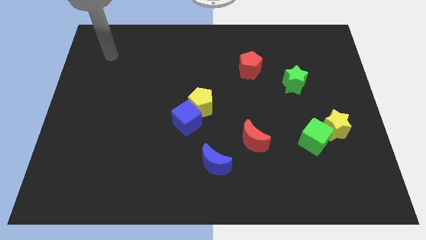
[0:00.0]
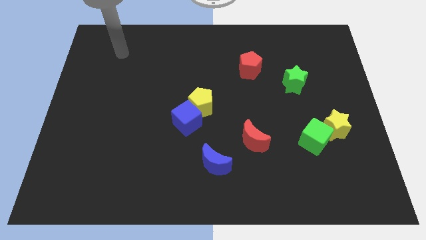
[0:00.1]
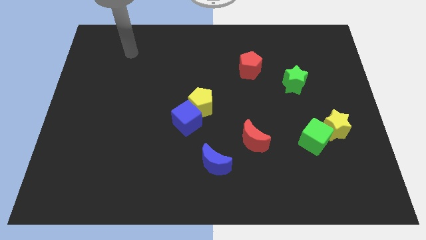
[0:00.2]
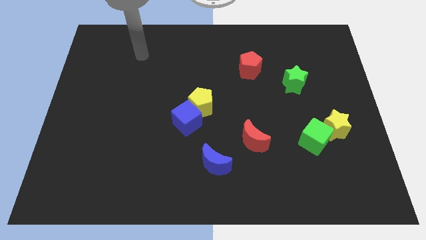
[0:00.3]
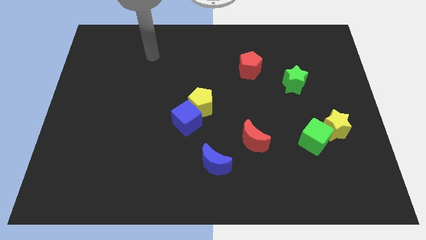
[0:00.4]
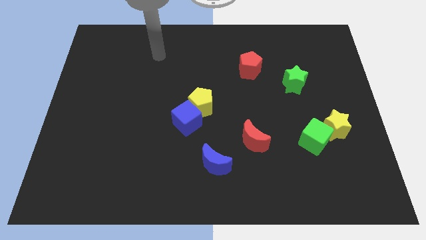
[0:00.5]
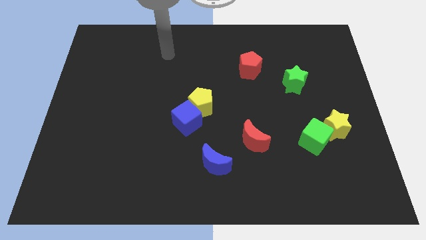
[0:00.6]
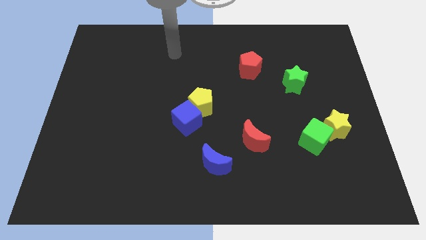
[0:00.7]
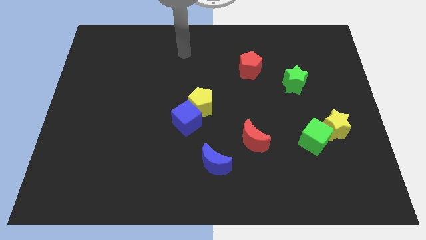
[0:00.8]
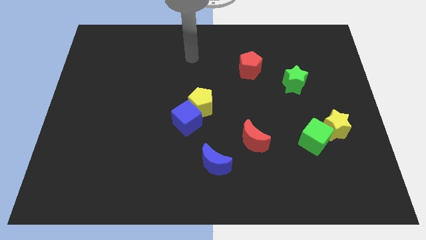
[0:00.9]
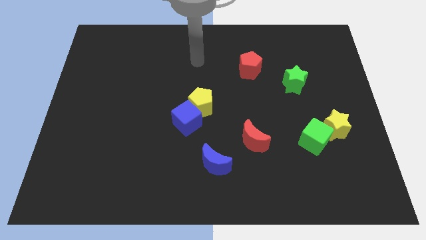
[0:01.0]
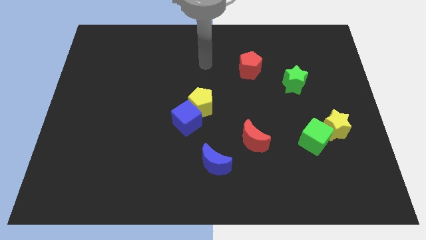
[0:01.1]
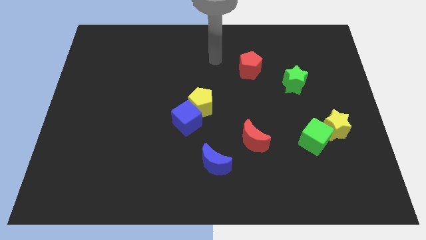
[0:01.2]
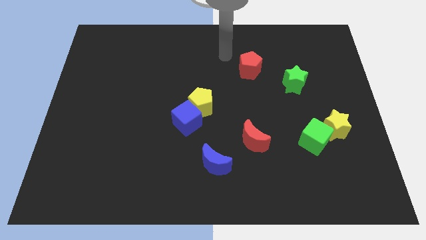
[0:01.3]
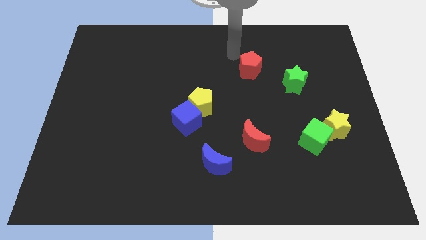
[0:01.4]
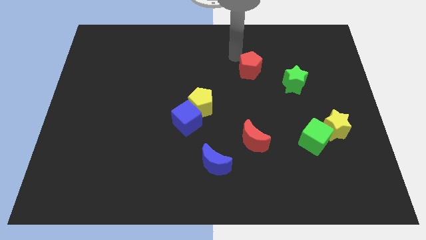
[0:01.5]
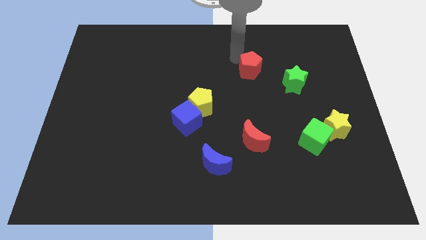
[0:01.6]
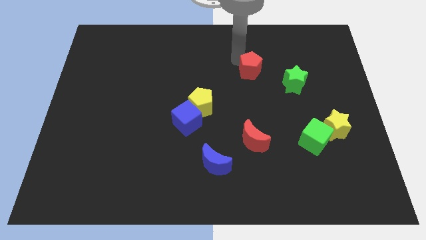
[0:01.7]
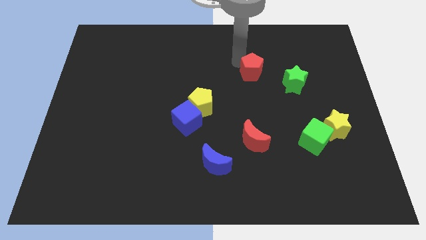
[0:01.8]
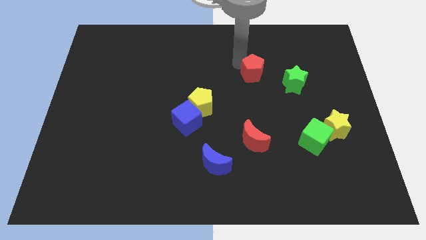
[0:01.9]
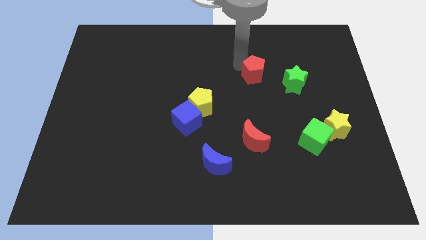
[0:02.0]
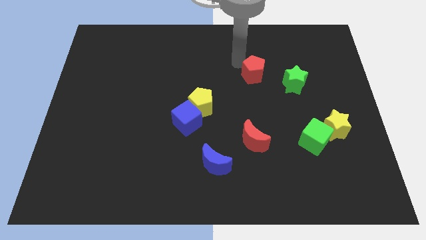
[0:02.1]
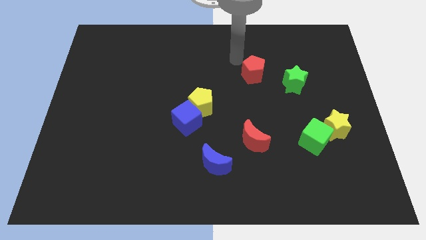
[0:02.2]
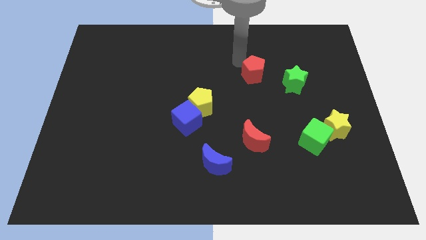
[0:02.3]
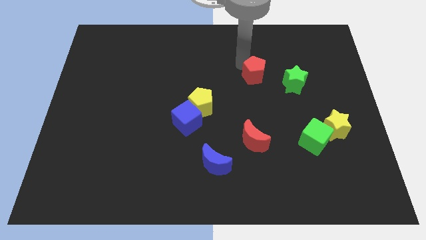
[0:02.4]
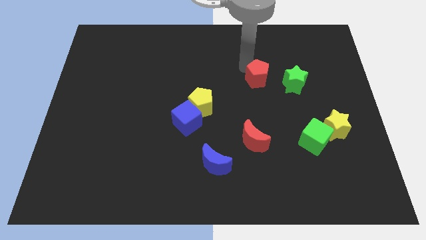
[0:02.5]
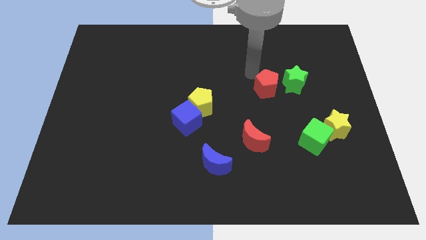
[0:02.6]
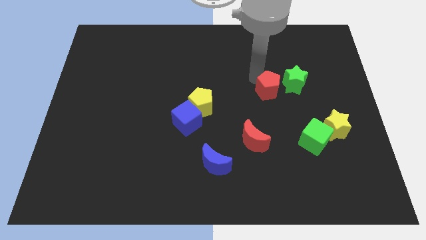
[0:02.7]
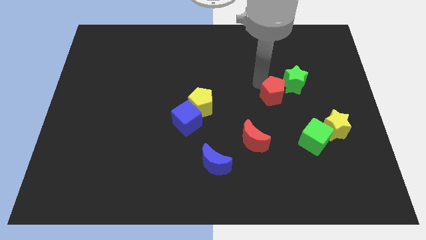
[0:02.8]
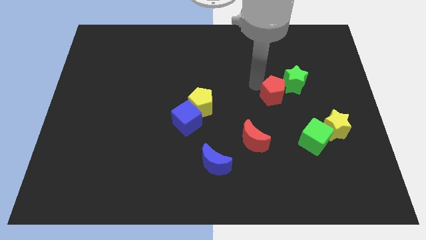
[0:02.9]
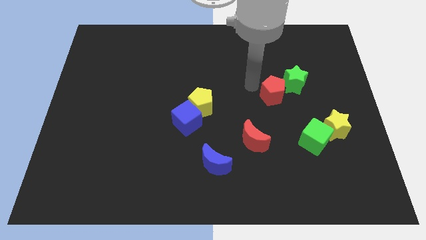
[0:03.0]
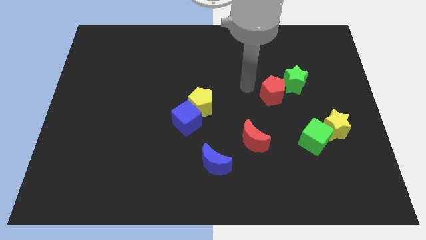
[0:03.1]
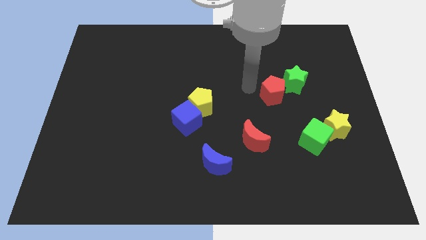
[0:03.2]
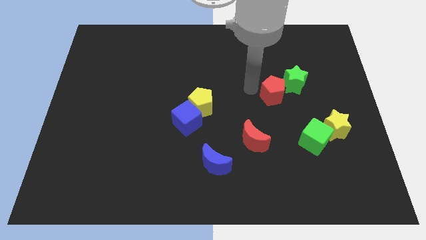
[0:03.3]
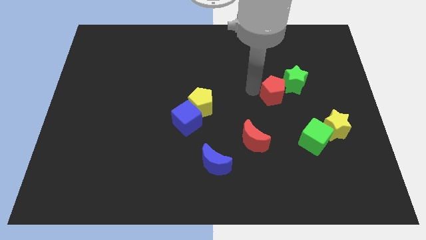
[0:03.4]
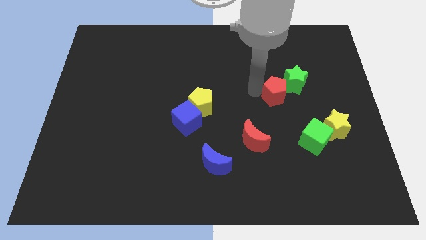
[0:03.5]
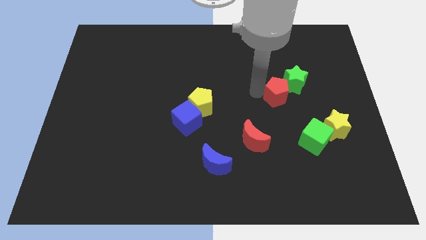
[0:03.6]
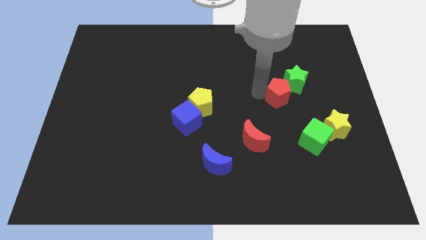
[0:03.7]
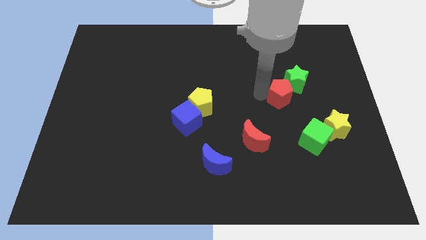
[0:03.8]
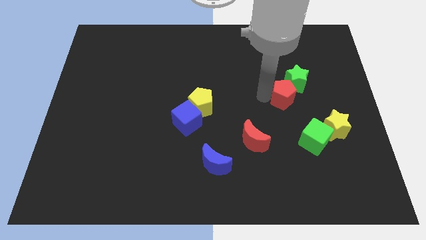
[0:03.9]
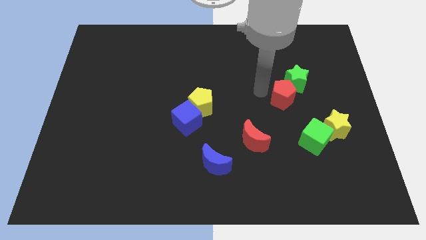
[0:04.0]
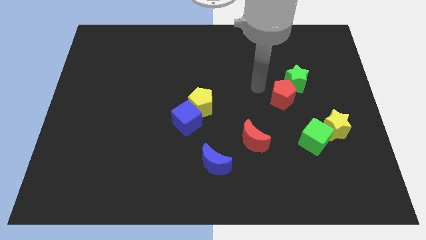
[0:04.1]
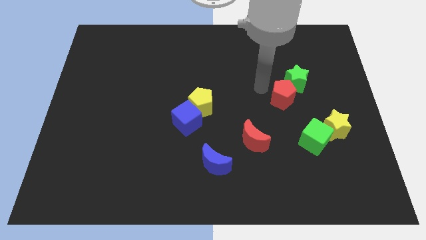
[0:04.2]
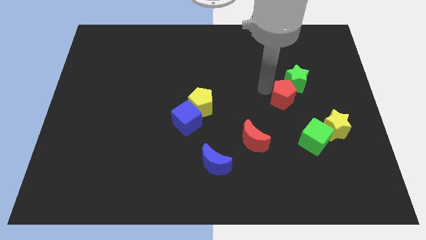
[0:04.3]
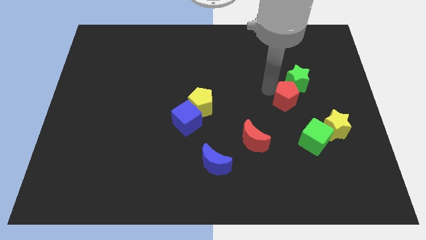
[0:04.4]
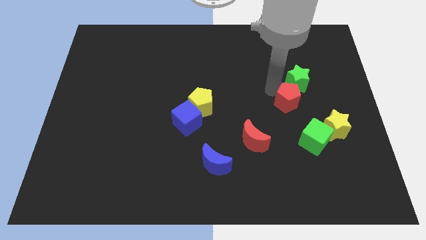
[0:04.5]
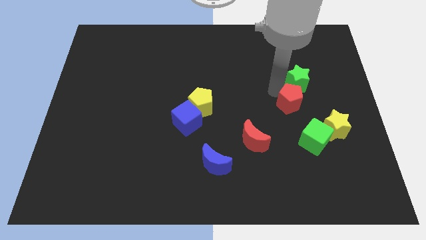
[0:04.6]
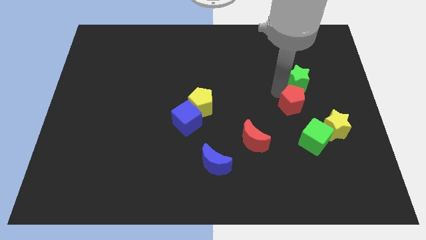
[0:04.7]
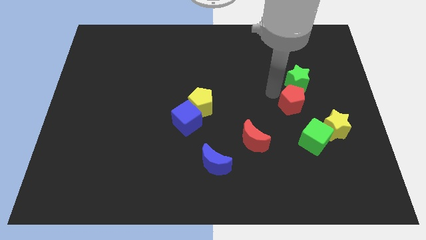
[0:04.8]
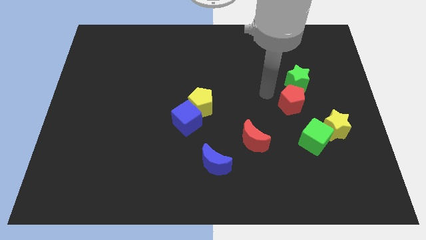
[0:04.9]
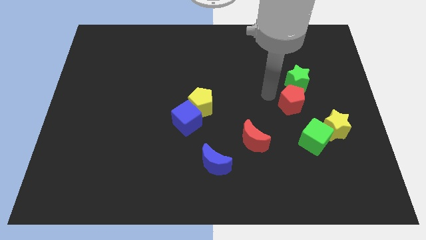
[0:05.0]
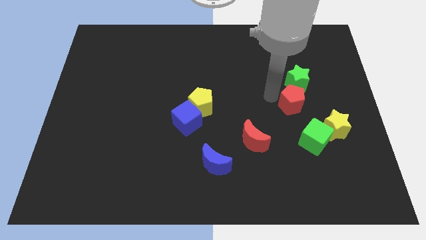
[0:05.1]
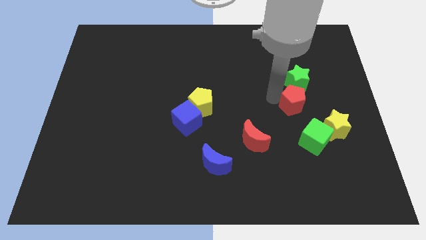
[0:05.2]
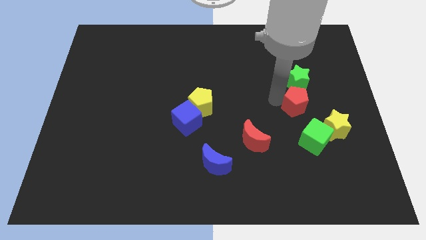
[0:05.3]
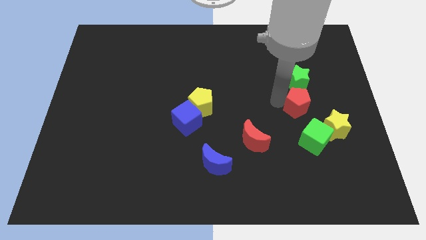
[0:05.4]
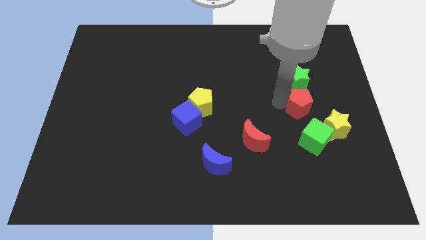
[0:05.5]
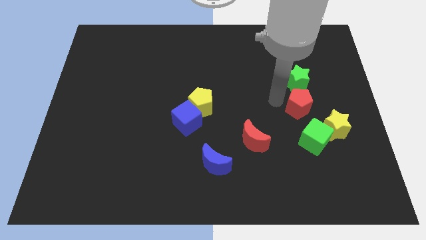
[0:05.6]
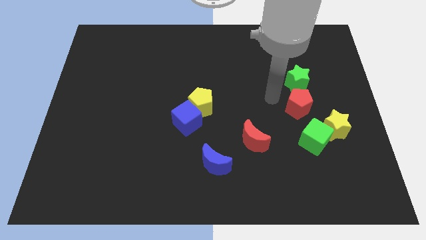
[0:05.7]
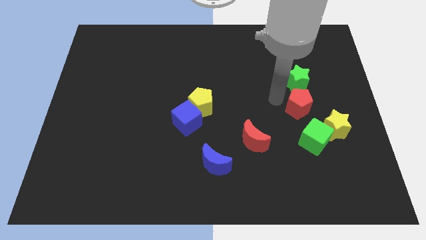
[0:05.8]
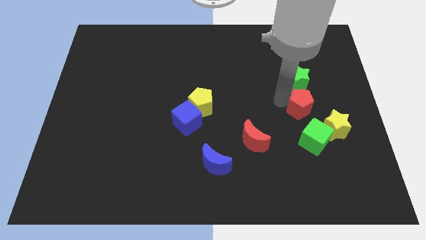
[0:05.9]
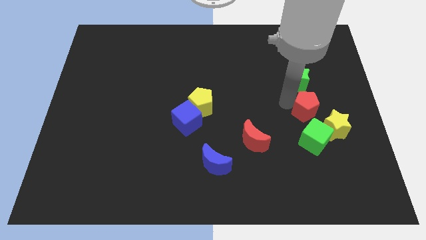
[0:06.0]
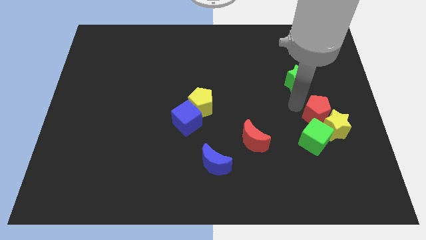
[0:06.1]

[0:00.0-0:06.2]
push the red pentagon towards the yellow star

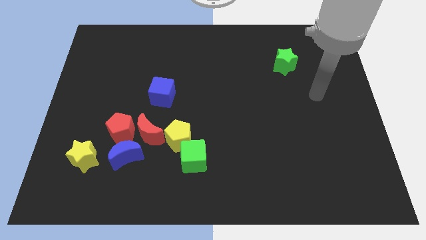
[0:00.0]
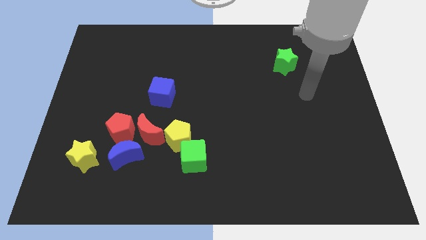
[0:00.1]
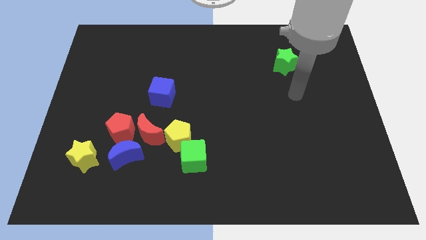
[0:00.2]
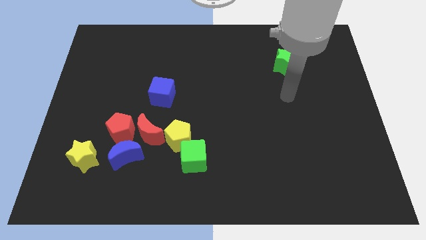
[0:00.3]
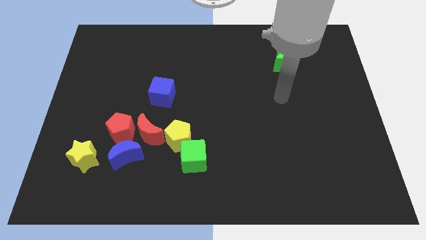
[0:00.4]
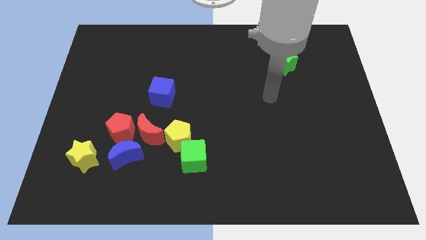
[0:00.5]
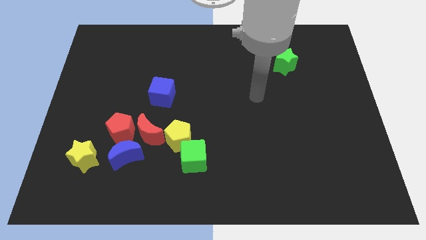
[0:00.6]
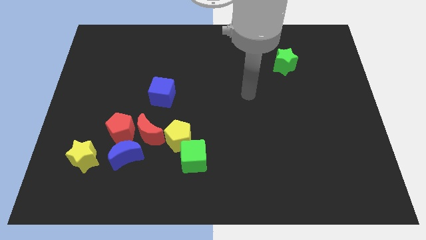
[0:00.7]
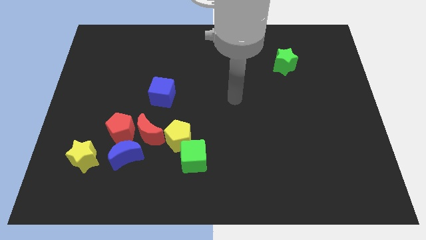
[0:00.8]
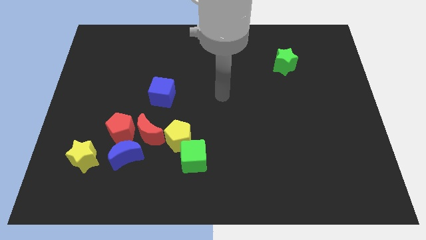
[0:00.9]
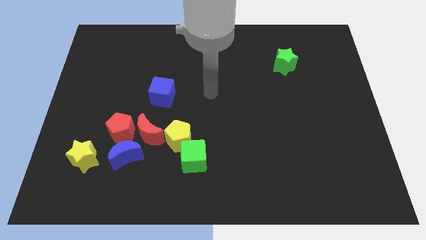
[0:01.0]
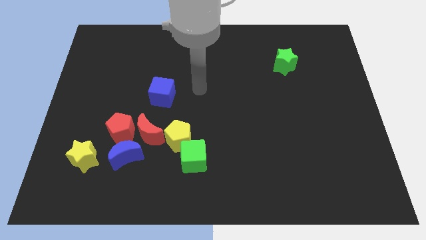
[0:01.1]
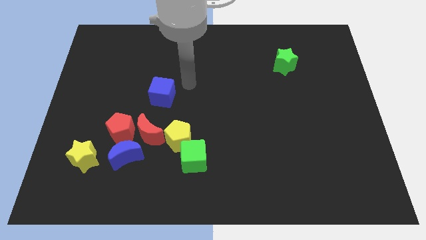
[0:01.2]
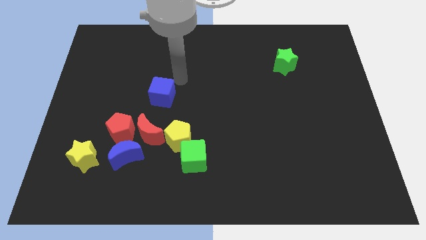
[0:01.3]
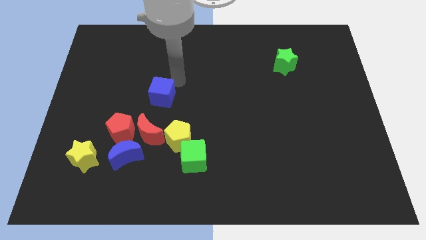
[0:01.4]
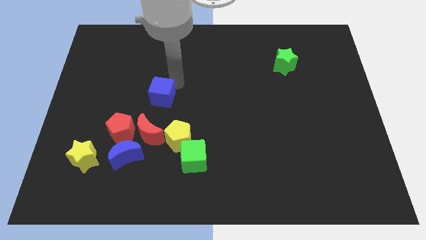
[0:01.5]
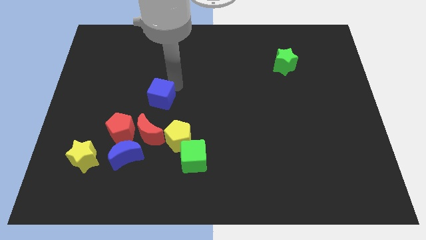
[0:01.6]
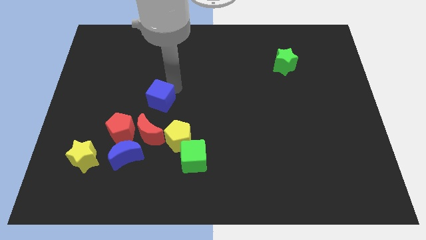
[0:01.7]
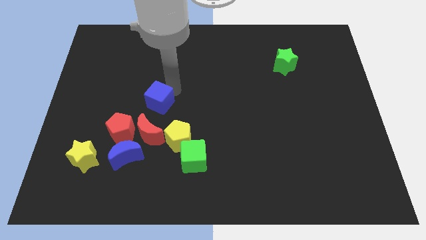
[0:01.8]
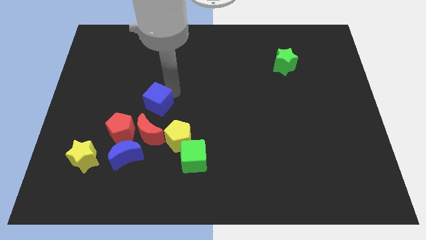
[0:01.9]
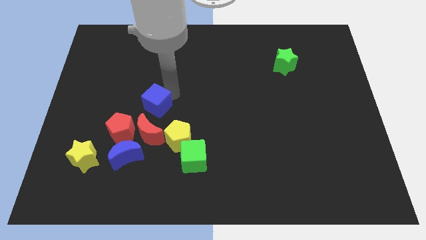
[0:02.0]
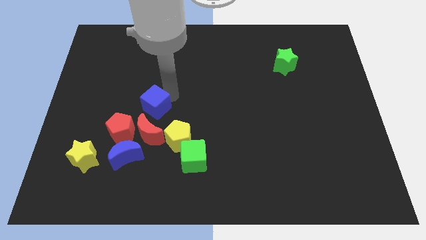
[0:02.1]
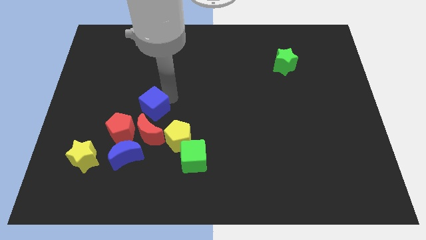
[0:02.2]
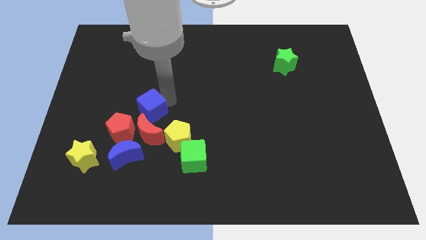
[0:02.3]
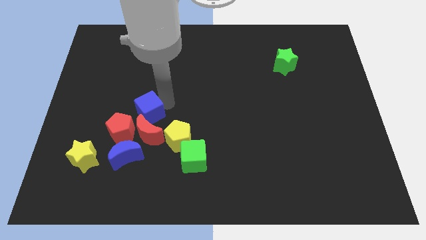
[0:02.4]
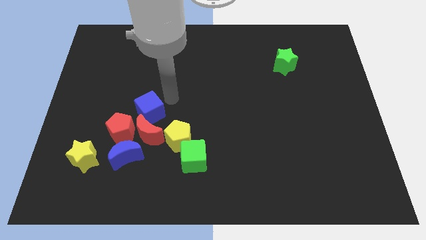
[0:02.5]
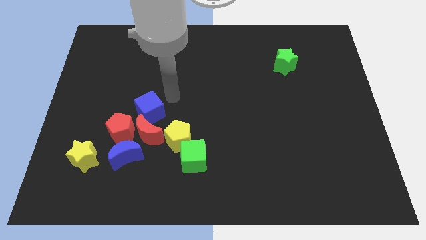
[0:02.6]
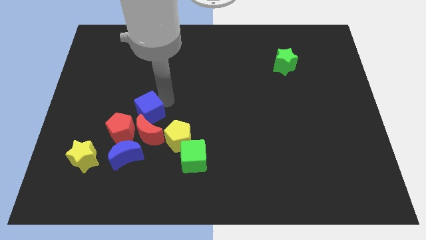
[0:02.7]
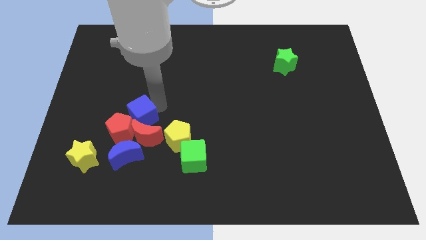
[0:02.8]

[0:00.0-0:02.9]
push the blue cube close to the red pentagon
